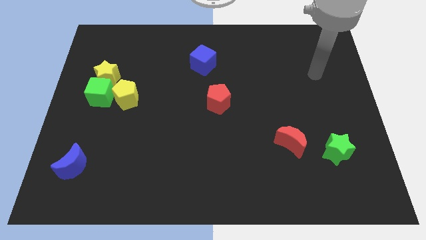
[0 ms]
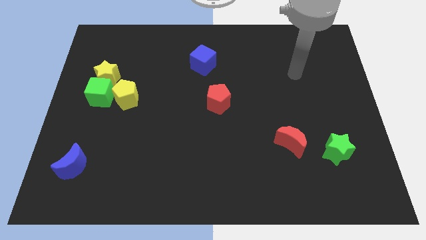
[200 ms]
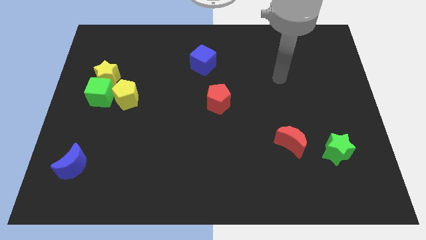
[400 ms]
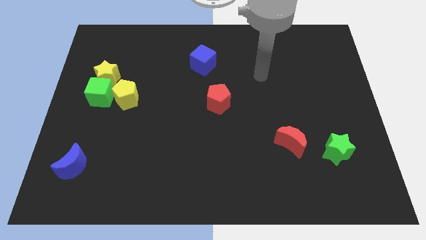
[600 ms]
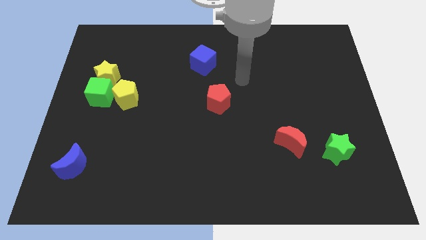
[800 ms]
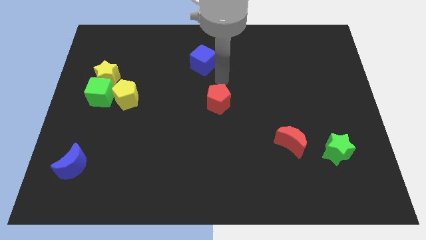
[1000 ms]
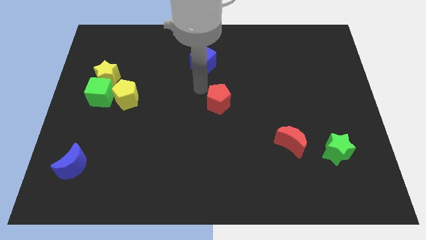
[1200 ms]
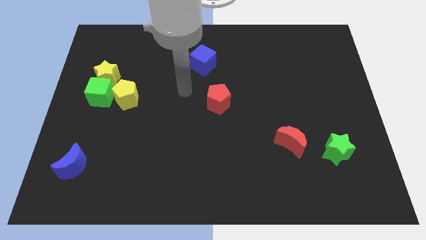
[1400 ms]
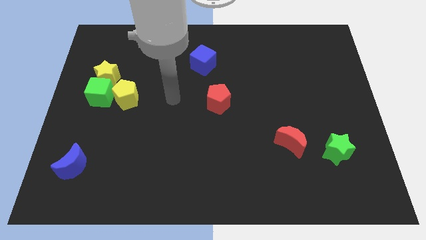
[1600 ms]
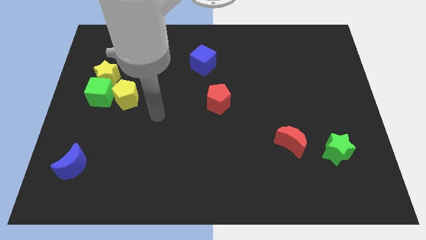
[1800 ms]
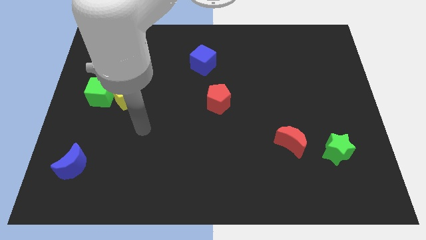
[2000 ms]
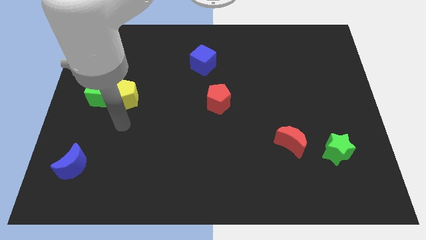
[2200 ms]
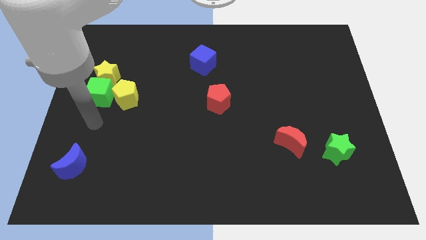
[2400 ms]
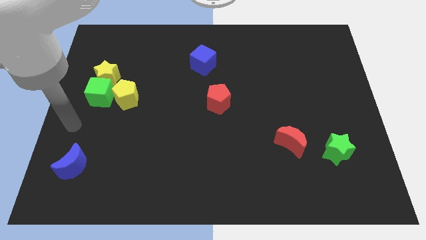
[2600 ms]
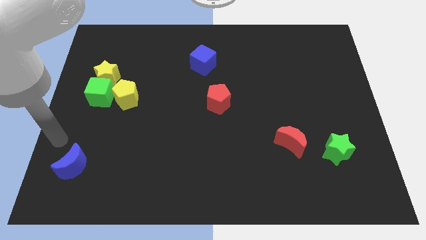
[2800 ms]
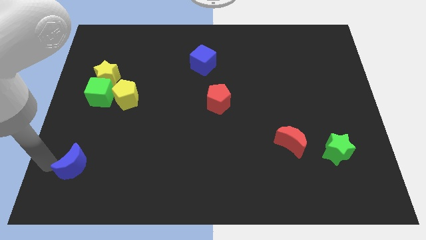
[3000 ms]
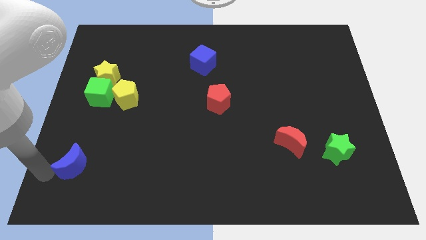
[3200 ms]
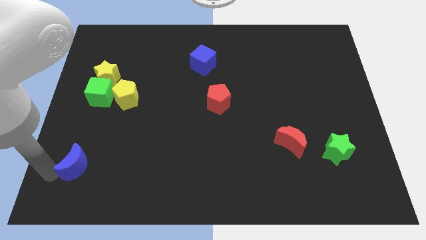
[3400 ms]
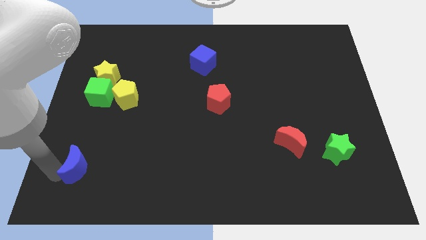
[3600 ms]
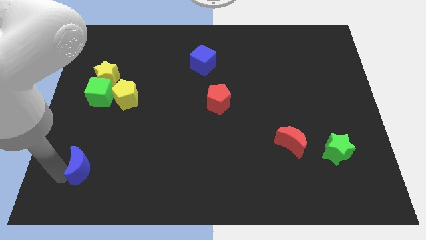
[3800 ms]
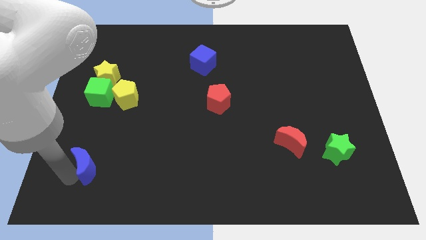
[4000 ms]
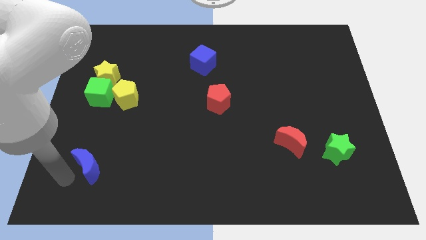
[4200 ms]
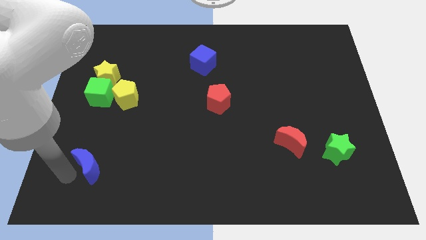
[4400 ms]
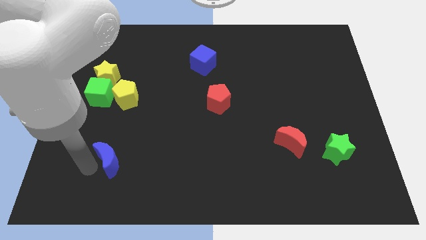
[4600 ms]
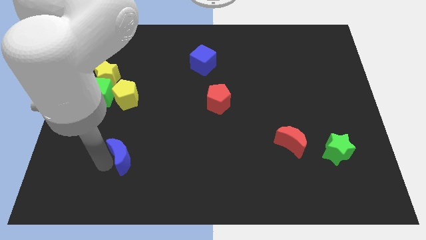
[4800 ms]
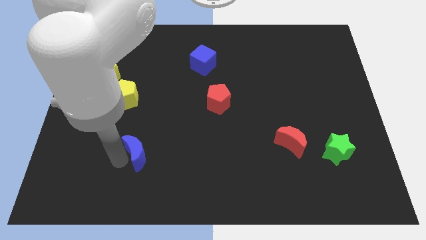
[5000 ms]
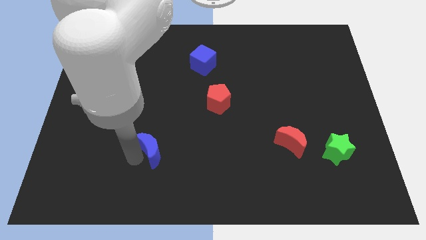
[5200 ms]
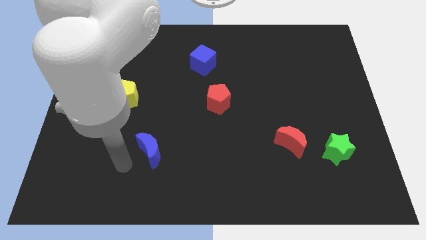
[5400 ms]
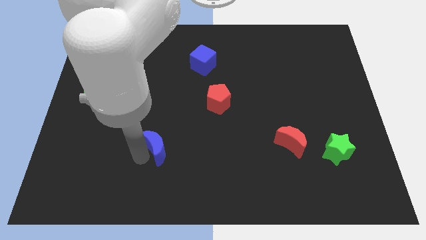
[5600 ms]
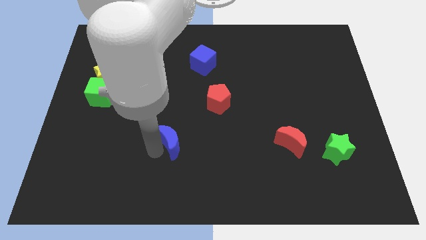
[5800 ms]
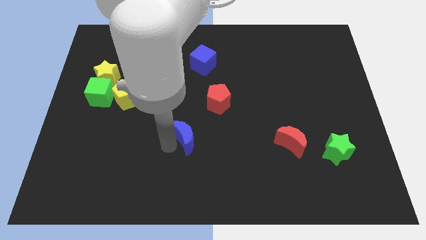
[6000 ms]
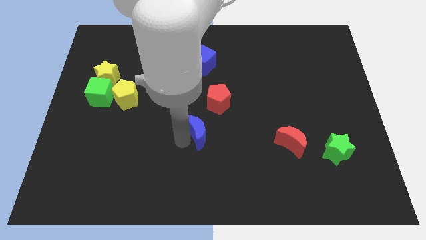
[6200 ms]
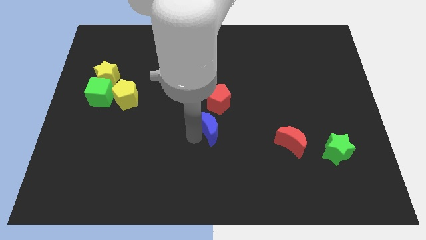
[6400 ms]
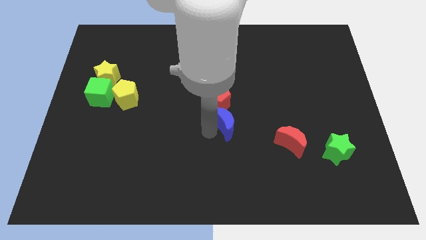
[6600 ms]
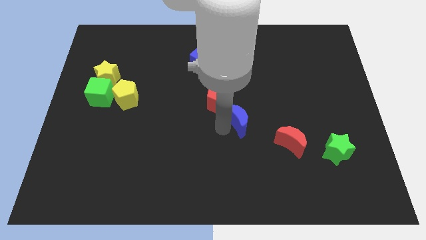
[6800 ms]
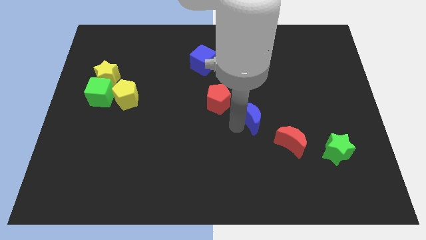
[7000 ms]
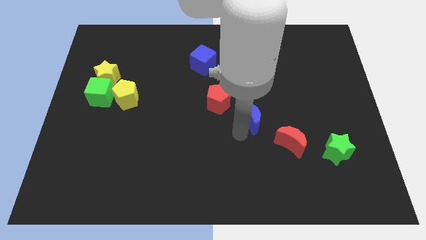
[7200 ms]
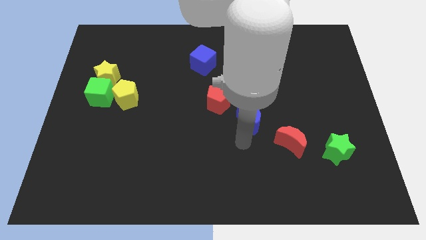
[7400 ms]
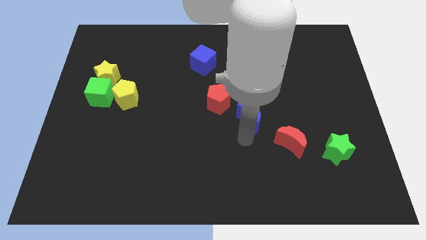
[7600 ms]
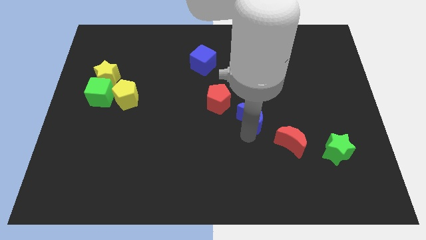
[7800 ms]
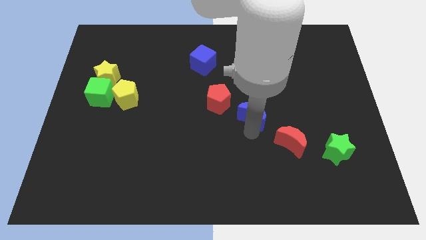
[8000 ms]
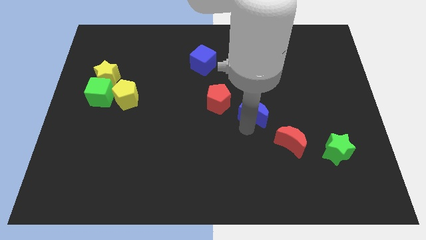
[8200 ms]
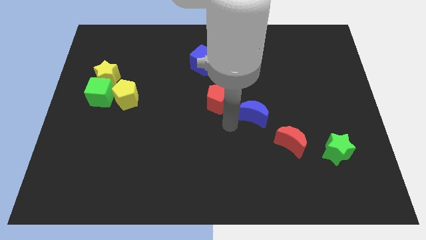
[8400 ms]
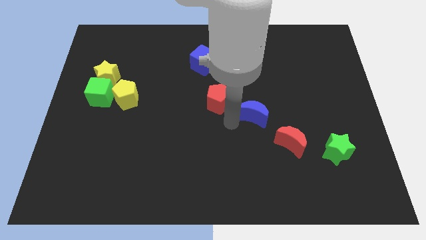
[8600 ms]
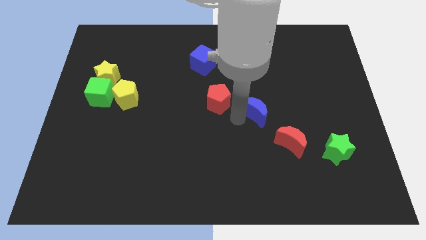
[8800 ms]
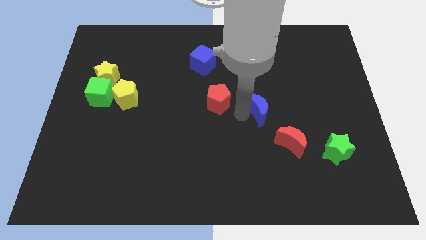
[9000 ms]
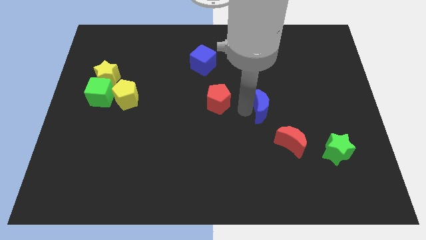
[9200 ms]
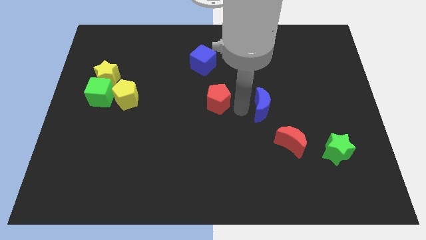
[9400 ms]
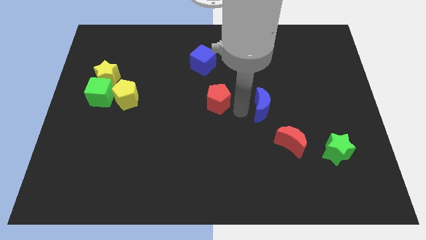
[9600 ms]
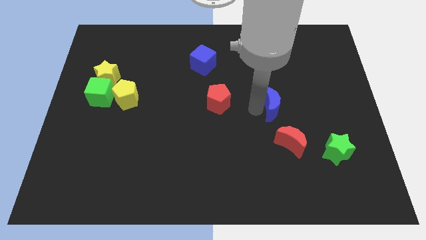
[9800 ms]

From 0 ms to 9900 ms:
slide the blue moon to the top side of the red moon

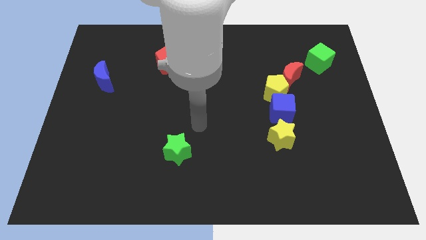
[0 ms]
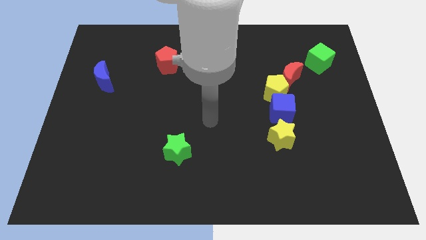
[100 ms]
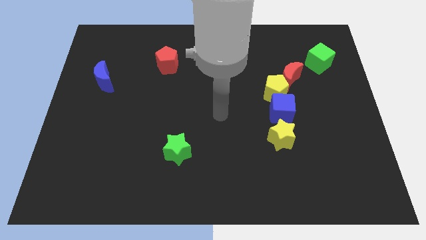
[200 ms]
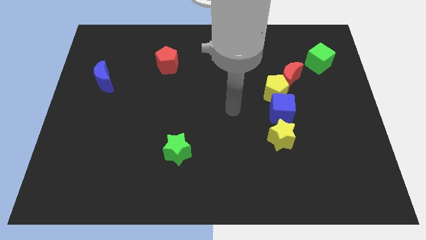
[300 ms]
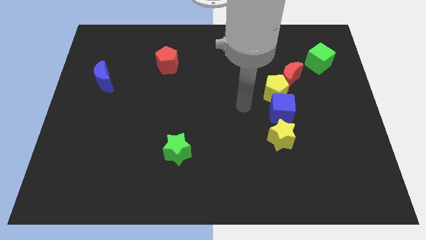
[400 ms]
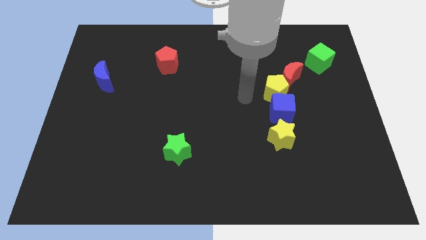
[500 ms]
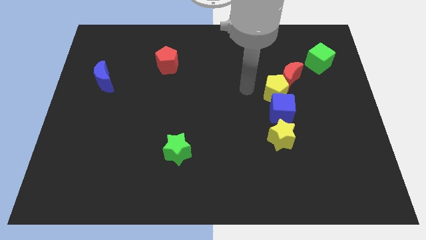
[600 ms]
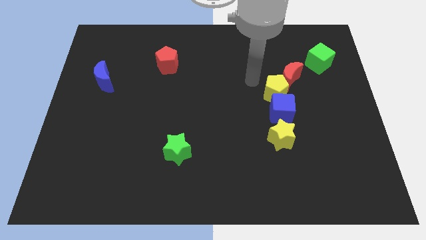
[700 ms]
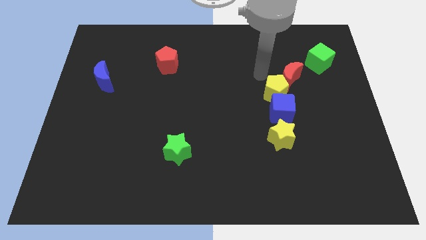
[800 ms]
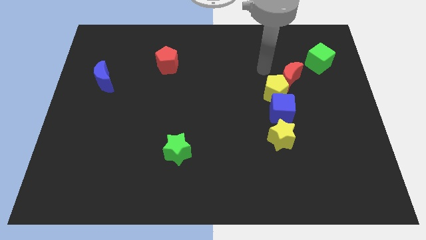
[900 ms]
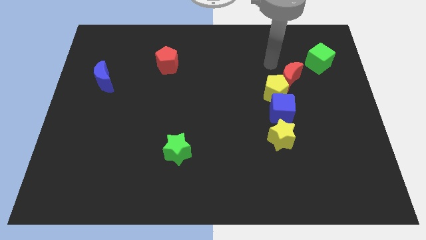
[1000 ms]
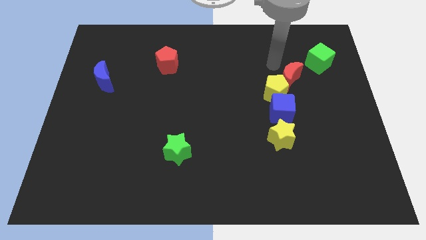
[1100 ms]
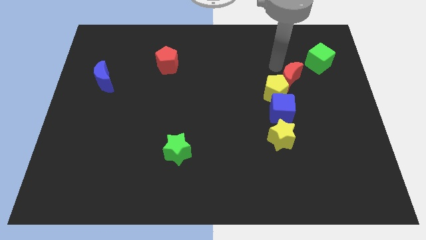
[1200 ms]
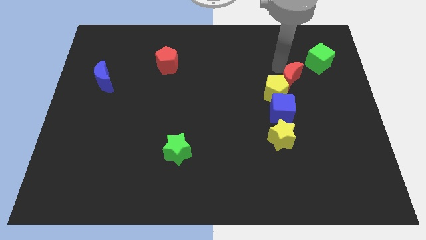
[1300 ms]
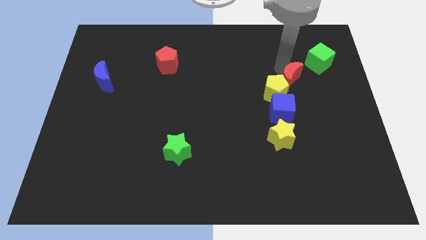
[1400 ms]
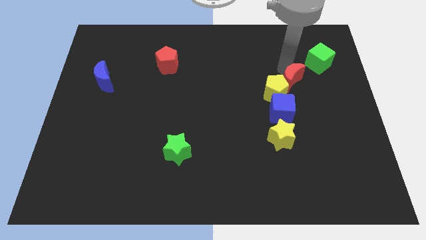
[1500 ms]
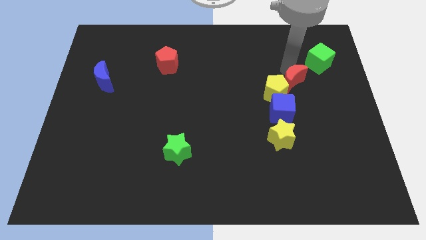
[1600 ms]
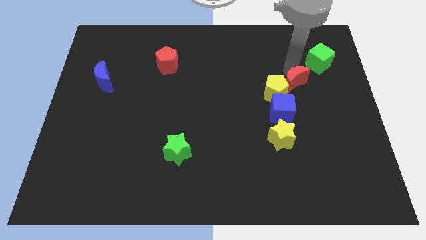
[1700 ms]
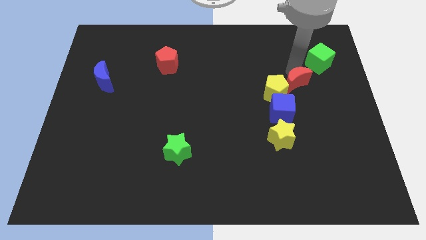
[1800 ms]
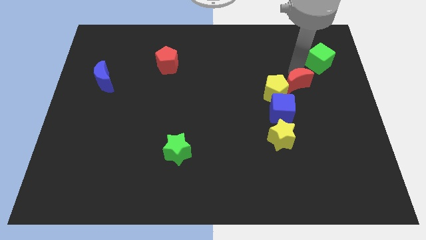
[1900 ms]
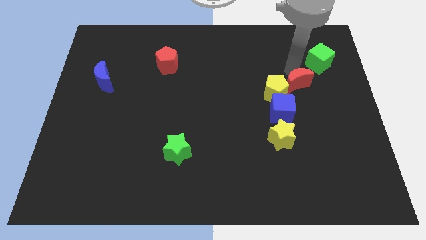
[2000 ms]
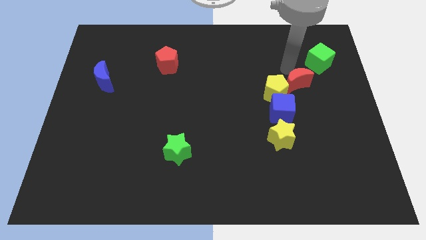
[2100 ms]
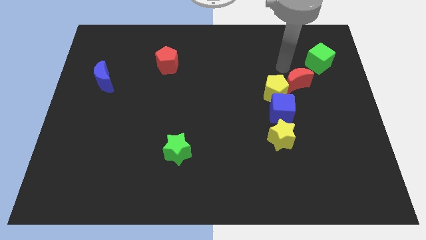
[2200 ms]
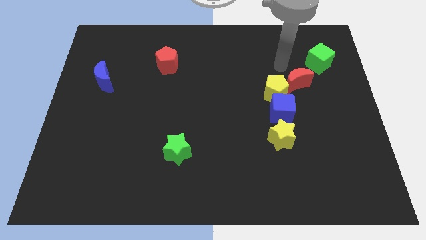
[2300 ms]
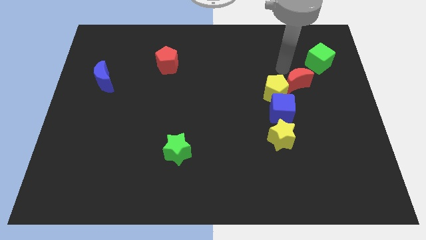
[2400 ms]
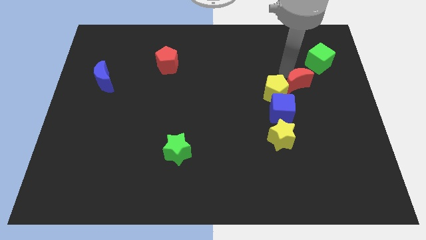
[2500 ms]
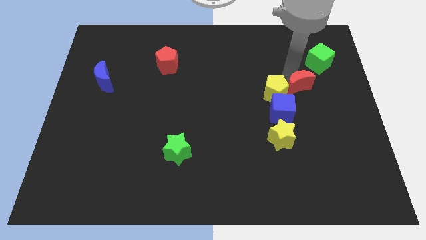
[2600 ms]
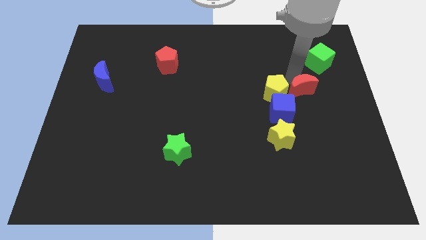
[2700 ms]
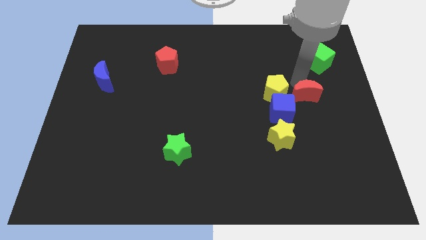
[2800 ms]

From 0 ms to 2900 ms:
push the red moon to the bottom right side of the yellow pentagon
